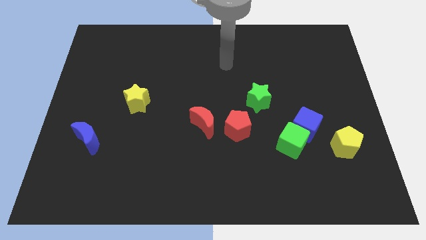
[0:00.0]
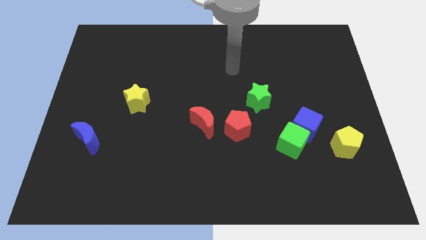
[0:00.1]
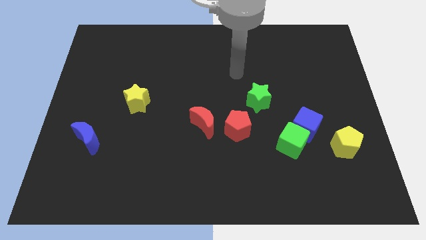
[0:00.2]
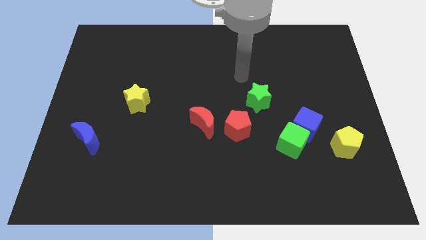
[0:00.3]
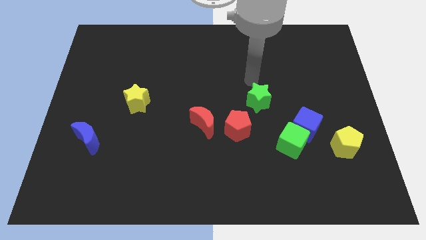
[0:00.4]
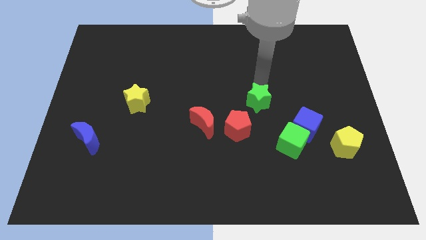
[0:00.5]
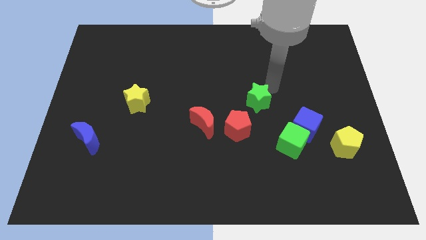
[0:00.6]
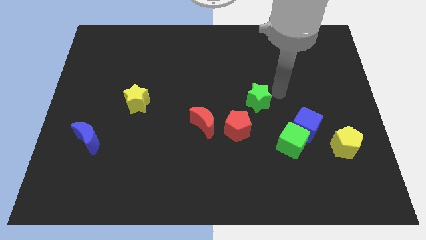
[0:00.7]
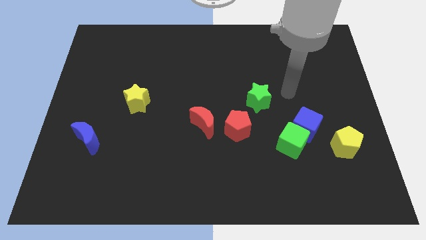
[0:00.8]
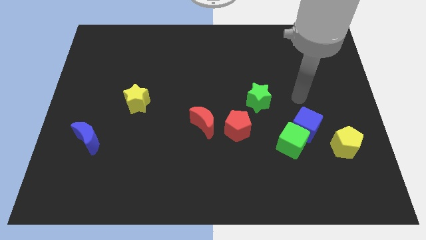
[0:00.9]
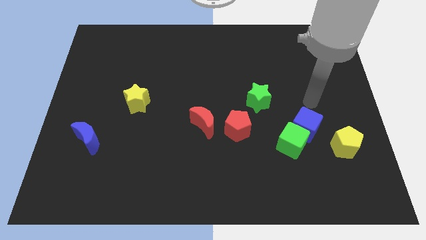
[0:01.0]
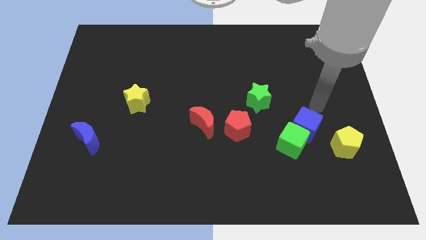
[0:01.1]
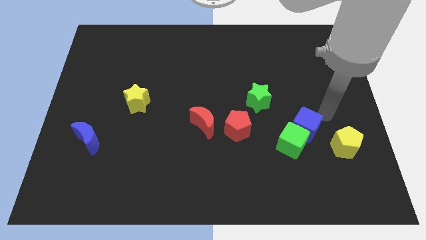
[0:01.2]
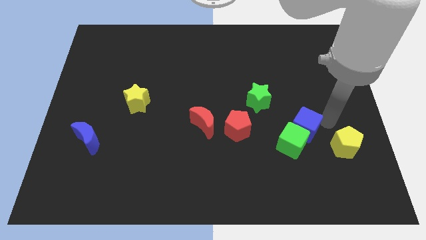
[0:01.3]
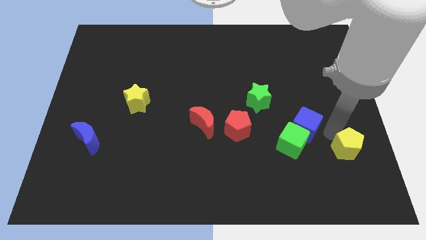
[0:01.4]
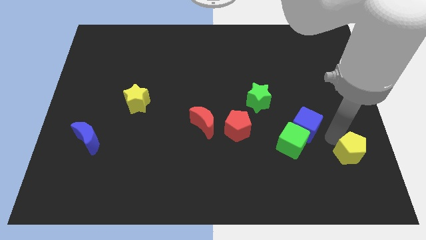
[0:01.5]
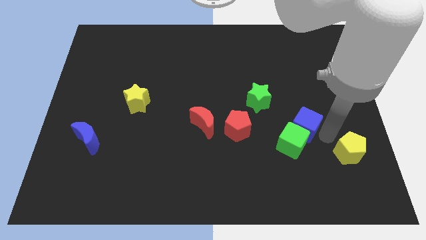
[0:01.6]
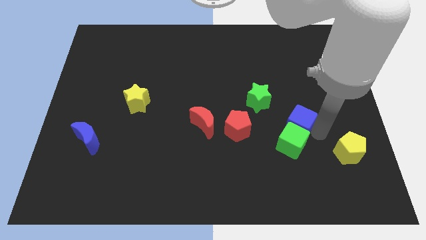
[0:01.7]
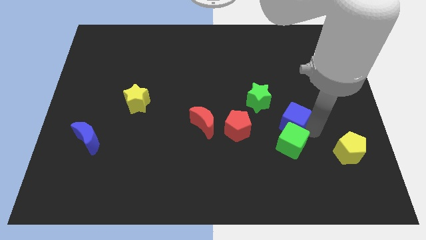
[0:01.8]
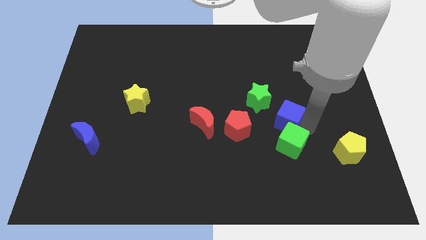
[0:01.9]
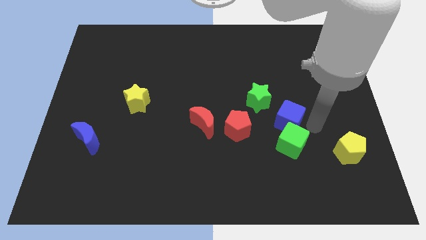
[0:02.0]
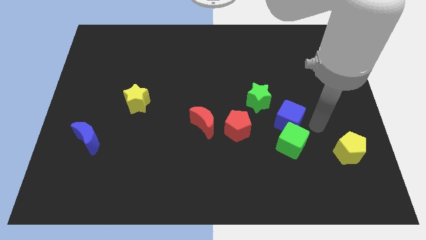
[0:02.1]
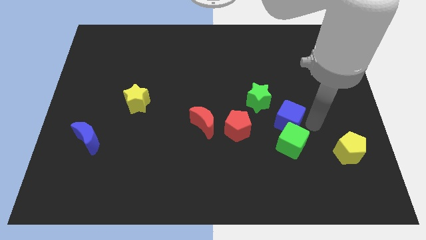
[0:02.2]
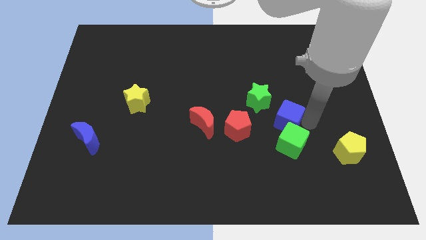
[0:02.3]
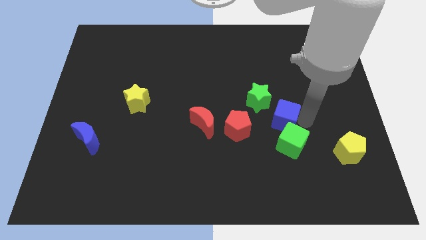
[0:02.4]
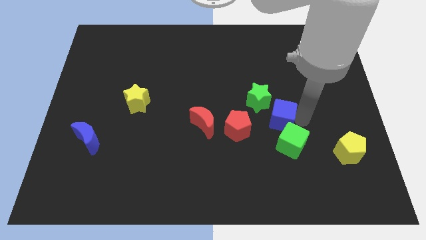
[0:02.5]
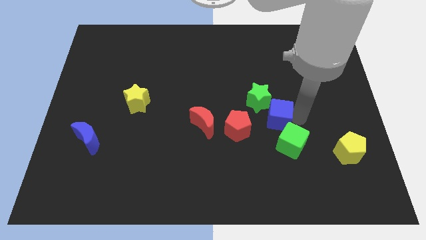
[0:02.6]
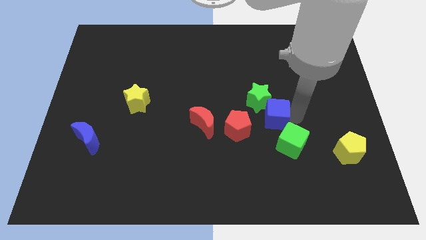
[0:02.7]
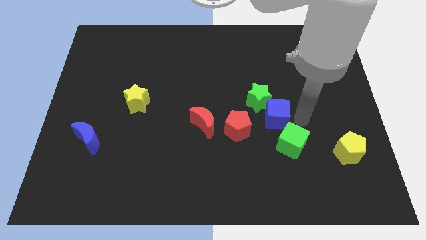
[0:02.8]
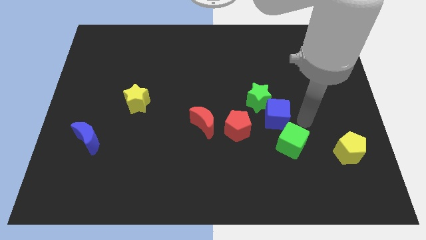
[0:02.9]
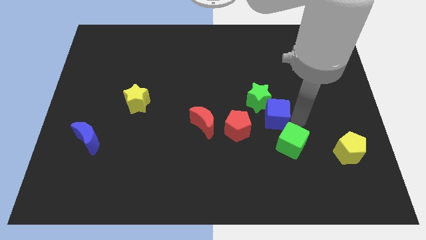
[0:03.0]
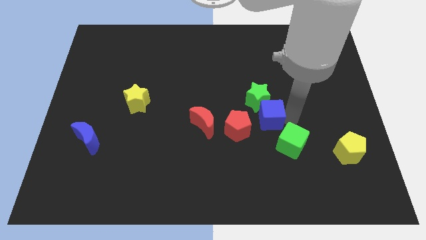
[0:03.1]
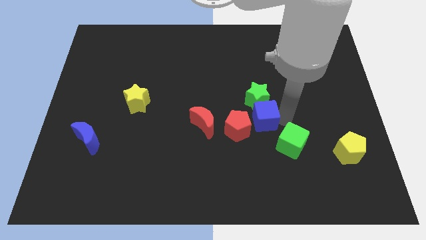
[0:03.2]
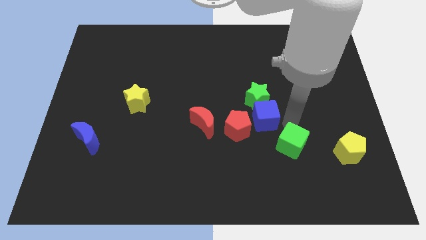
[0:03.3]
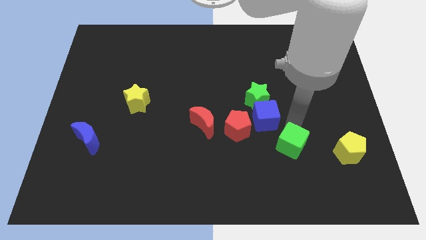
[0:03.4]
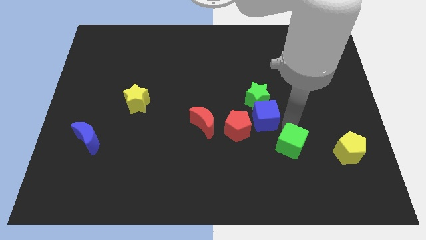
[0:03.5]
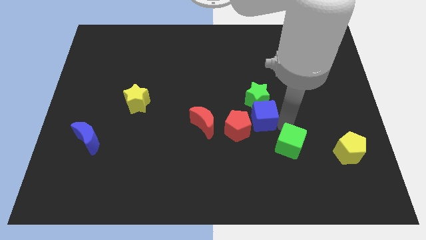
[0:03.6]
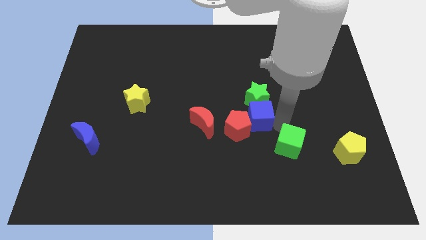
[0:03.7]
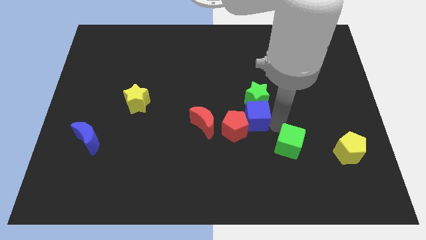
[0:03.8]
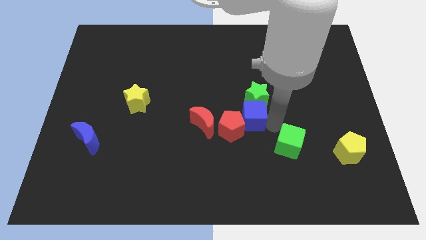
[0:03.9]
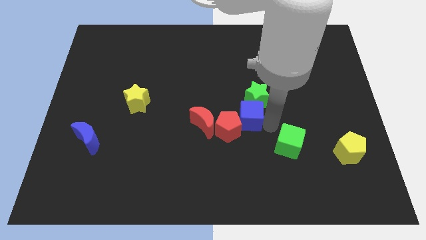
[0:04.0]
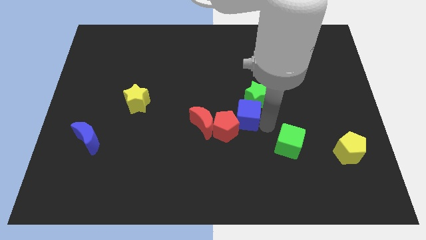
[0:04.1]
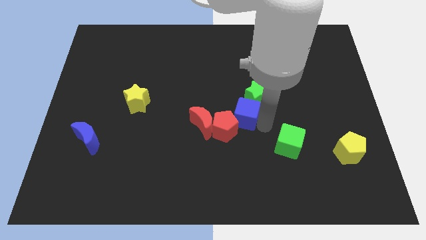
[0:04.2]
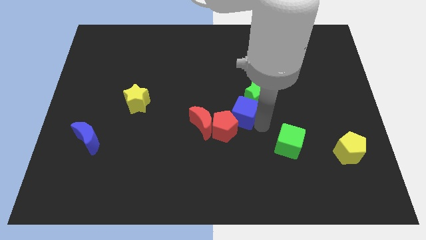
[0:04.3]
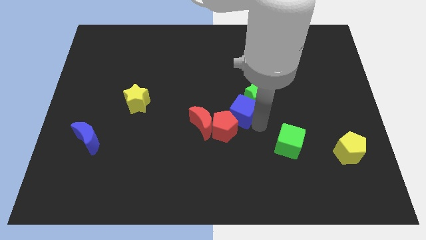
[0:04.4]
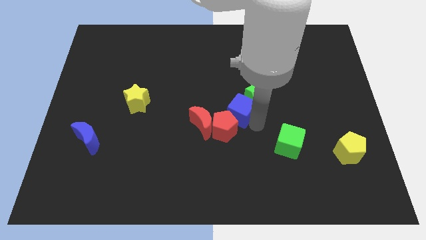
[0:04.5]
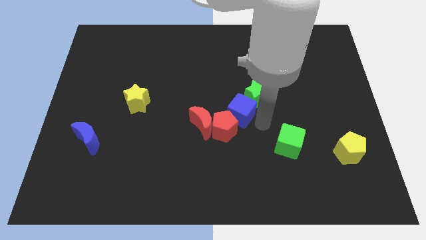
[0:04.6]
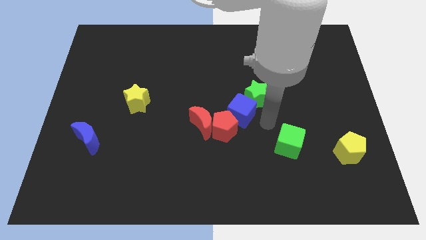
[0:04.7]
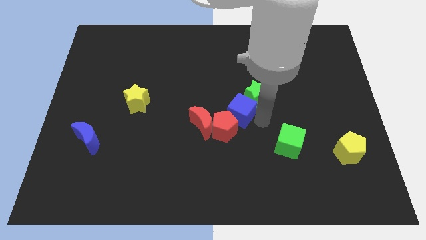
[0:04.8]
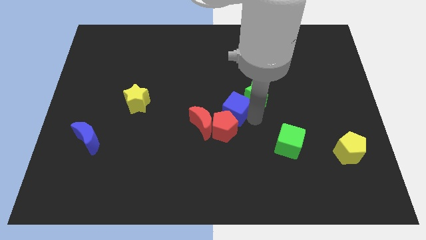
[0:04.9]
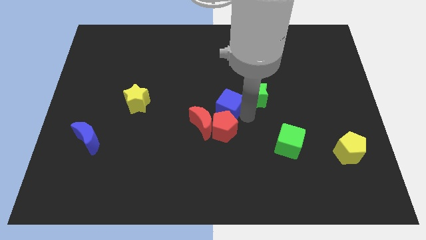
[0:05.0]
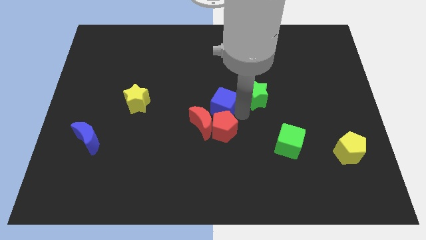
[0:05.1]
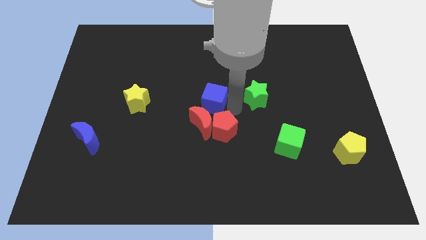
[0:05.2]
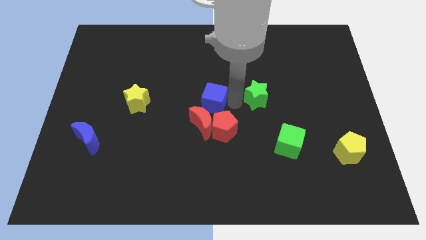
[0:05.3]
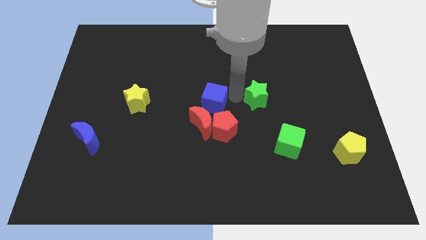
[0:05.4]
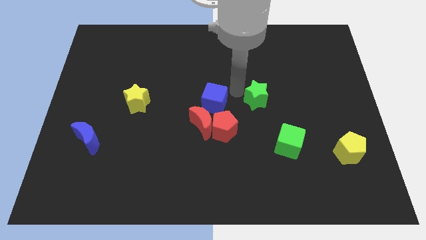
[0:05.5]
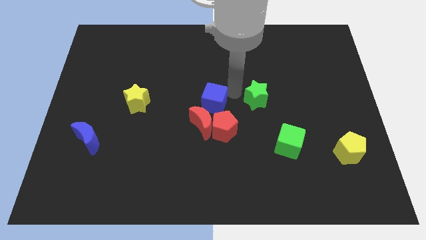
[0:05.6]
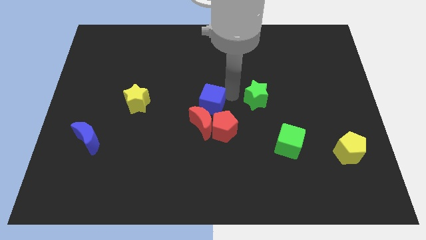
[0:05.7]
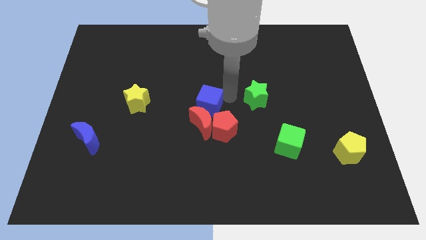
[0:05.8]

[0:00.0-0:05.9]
slide the blue cube to the left

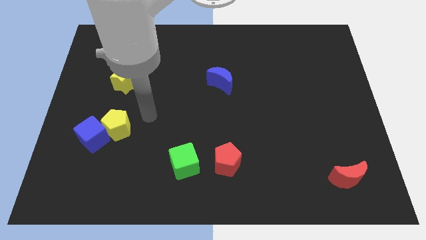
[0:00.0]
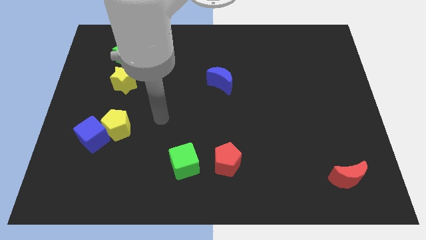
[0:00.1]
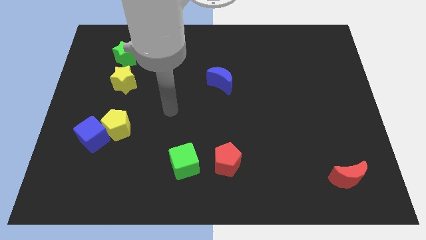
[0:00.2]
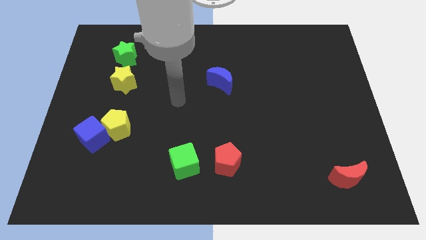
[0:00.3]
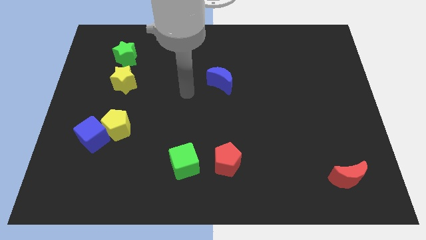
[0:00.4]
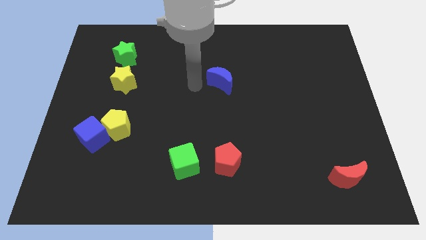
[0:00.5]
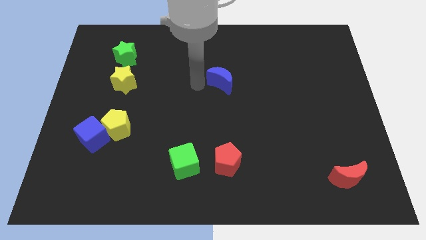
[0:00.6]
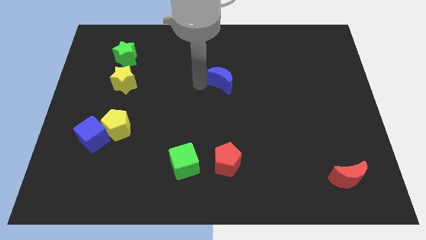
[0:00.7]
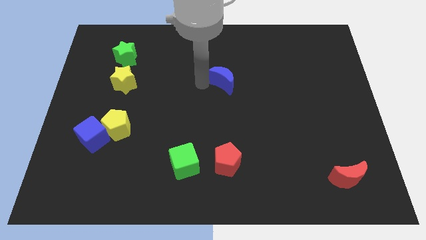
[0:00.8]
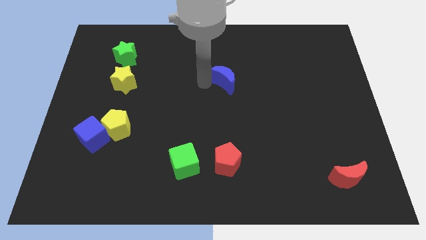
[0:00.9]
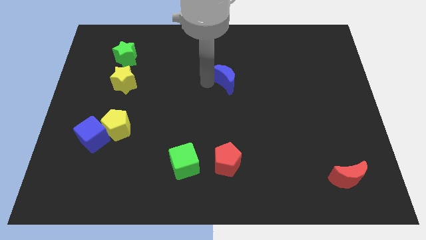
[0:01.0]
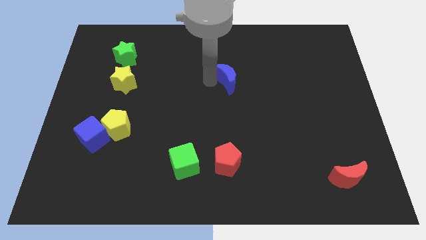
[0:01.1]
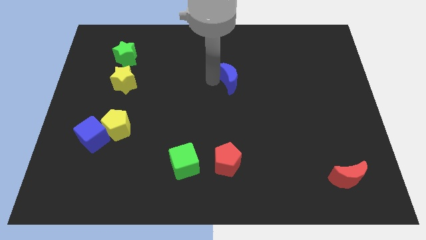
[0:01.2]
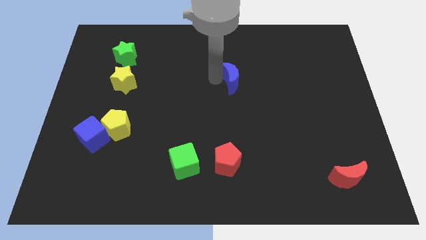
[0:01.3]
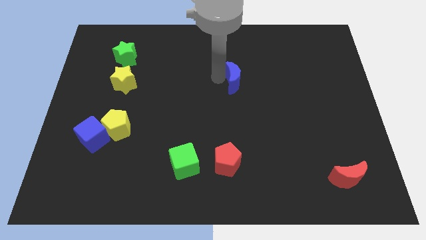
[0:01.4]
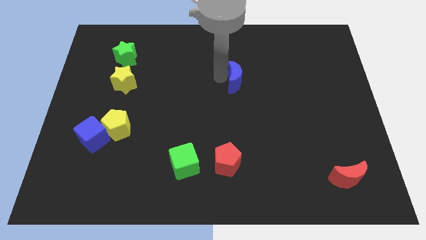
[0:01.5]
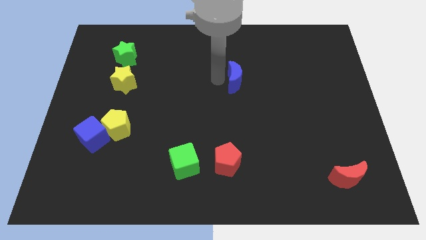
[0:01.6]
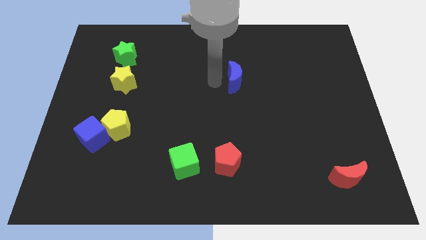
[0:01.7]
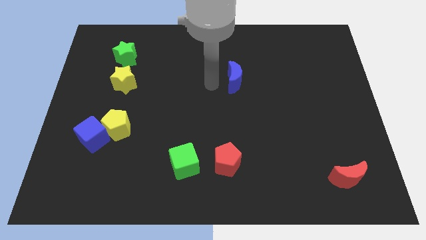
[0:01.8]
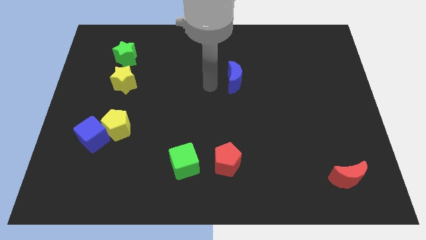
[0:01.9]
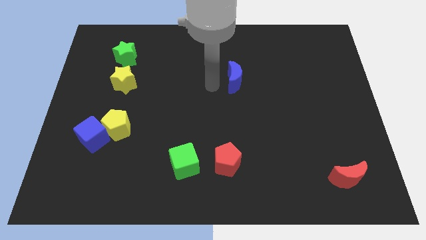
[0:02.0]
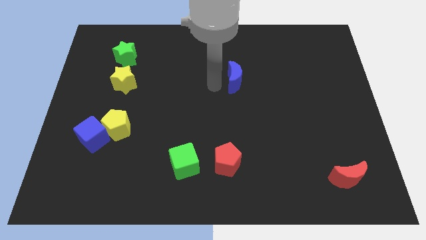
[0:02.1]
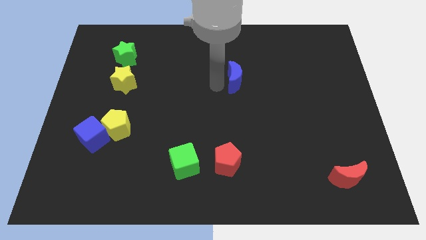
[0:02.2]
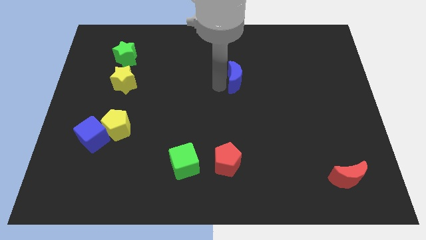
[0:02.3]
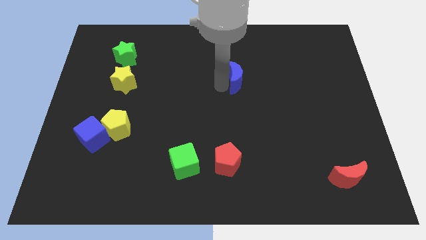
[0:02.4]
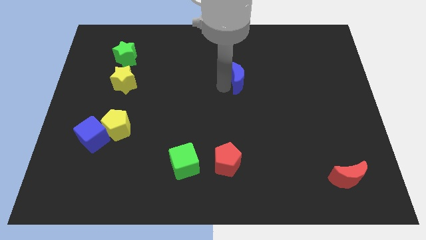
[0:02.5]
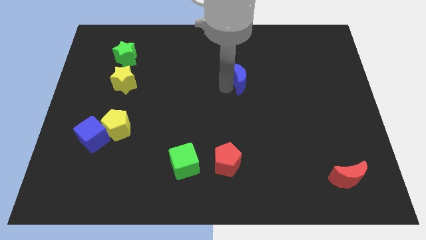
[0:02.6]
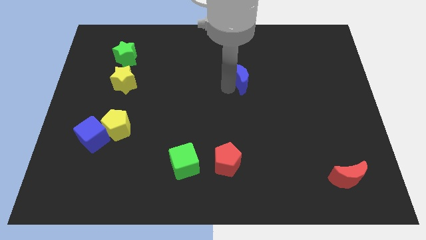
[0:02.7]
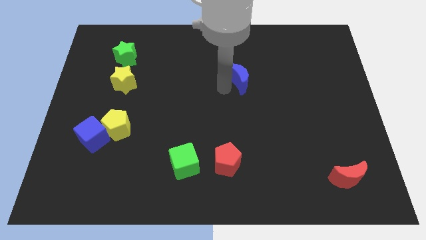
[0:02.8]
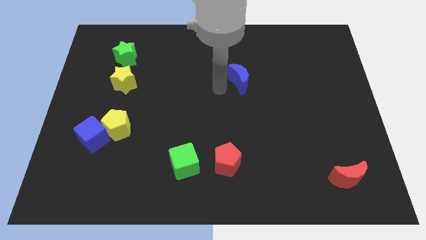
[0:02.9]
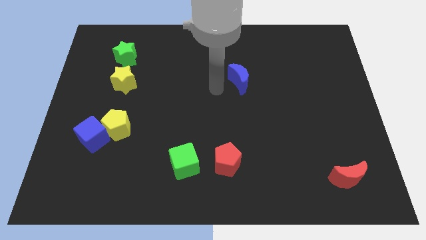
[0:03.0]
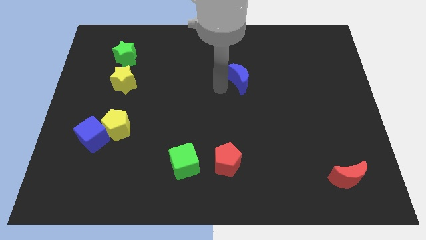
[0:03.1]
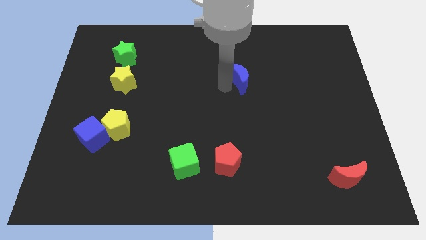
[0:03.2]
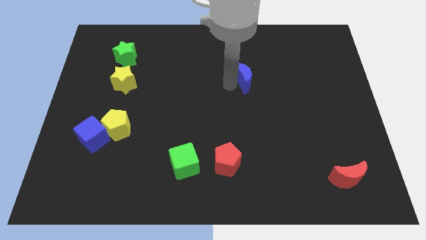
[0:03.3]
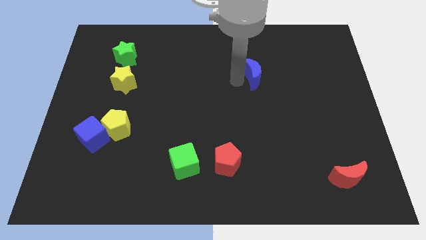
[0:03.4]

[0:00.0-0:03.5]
push the blue moon a little right
